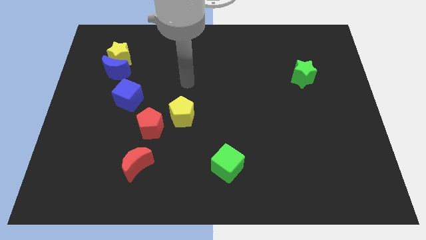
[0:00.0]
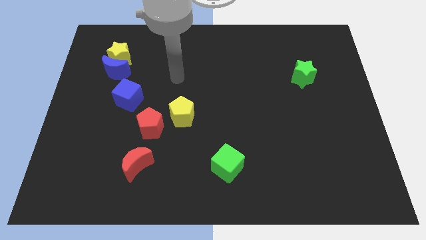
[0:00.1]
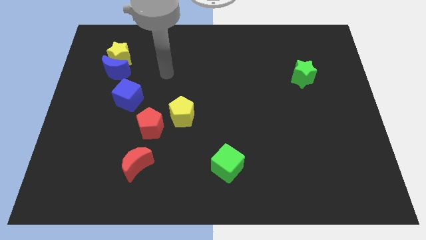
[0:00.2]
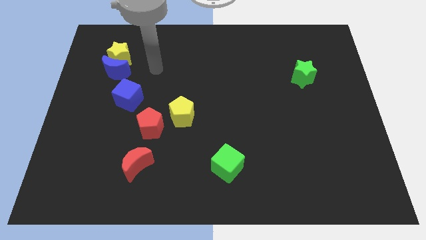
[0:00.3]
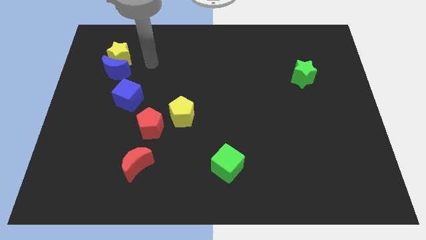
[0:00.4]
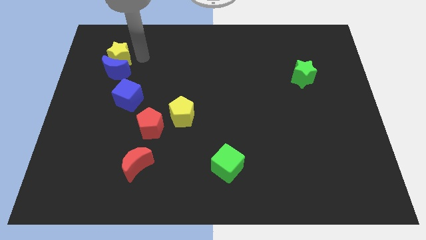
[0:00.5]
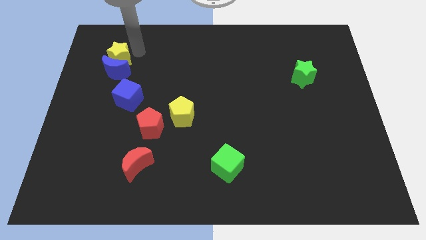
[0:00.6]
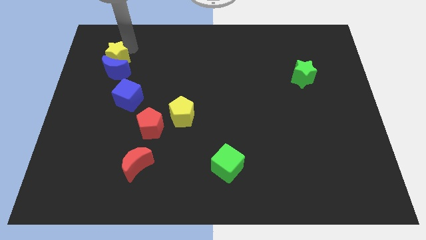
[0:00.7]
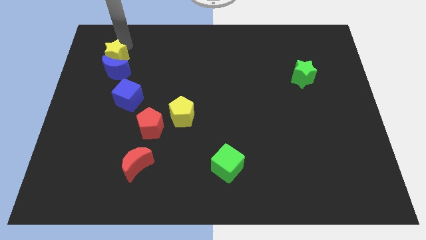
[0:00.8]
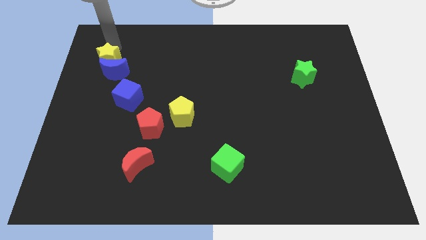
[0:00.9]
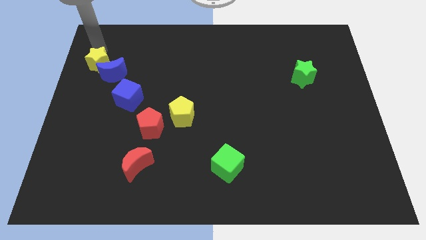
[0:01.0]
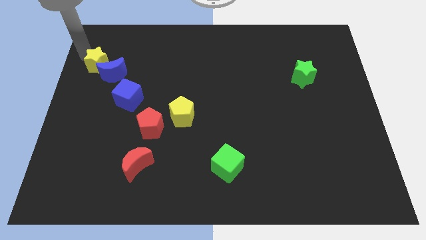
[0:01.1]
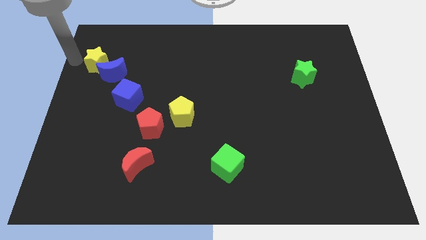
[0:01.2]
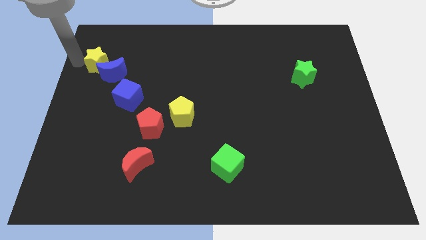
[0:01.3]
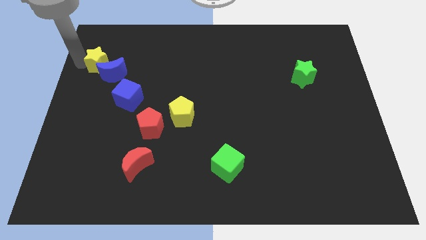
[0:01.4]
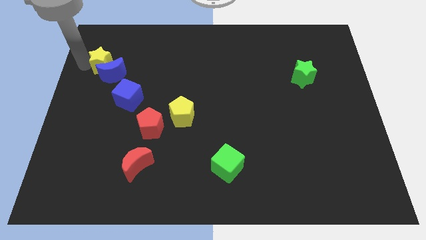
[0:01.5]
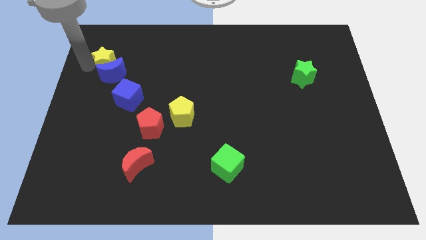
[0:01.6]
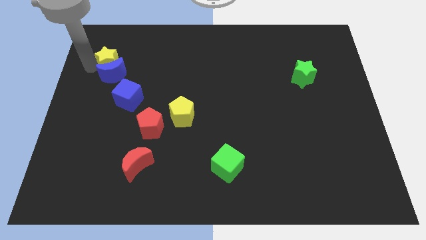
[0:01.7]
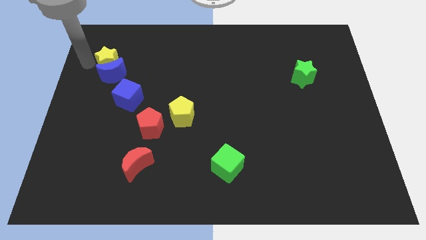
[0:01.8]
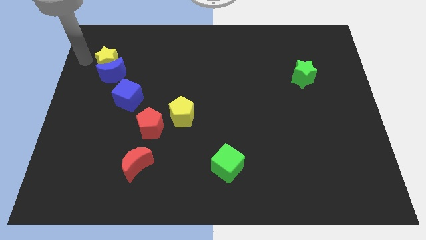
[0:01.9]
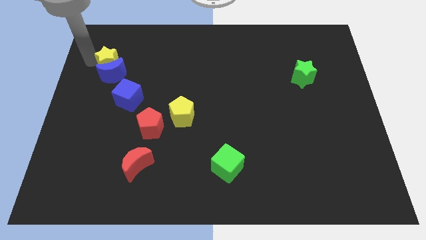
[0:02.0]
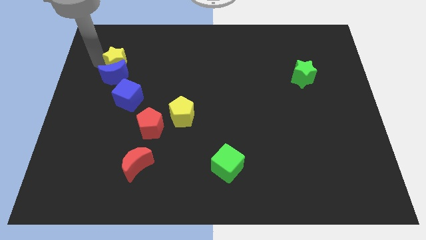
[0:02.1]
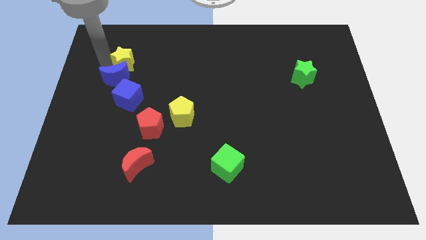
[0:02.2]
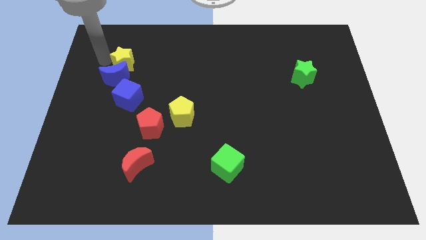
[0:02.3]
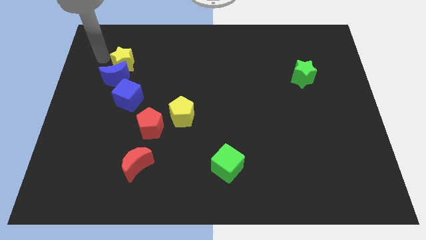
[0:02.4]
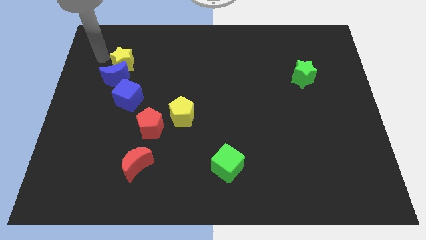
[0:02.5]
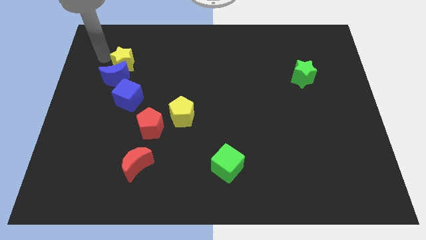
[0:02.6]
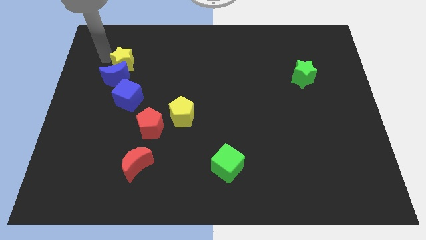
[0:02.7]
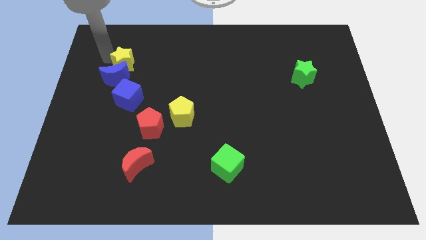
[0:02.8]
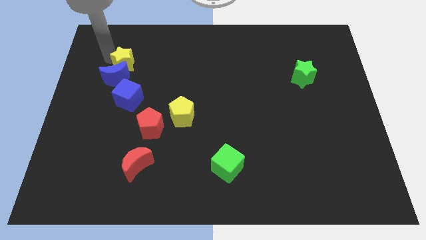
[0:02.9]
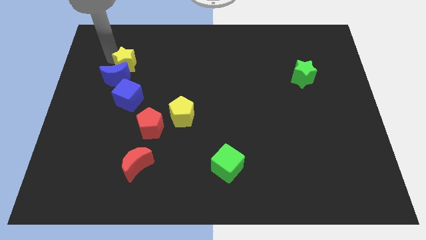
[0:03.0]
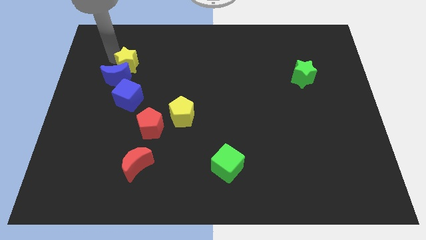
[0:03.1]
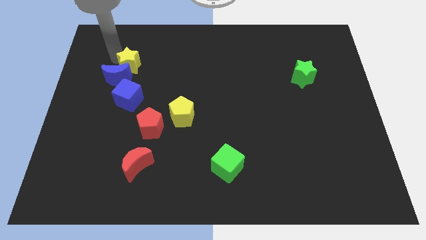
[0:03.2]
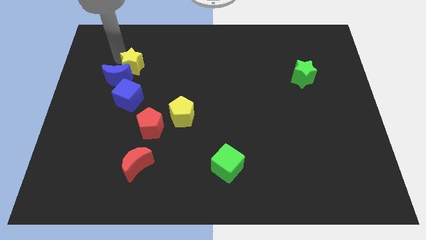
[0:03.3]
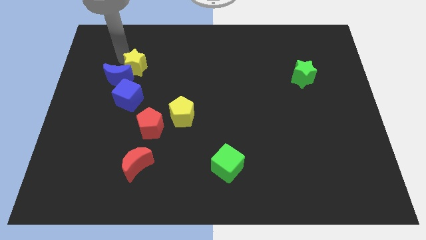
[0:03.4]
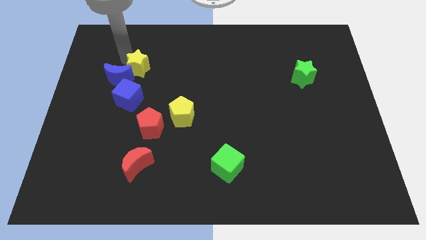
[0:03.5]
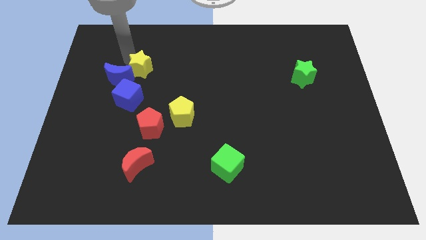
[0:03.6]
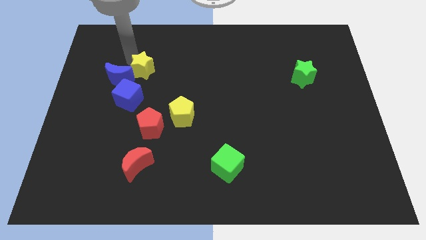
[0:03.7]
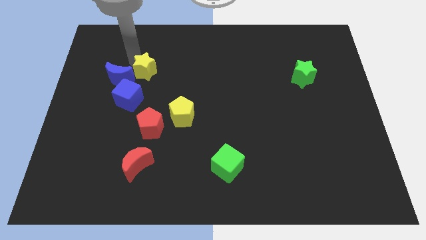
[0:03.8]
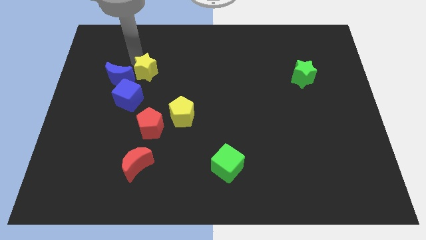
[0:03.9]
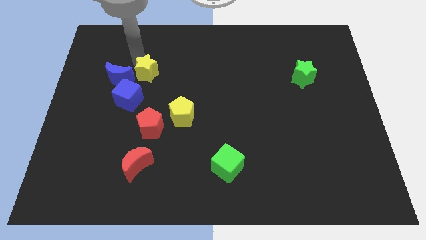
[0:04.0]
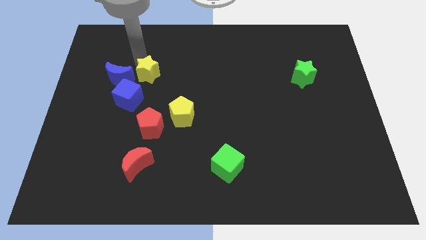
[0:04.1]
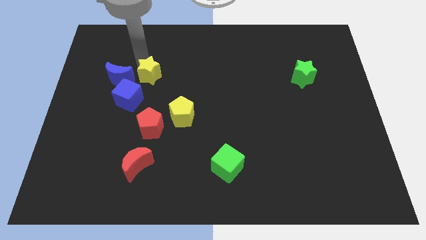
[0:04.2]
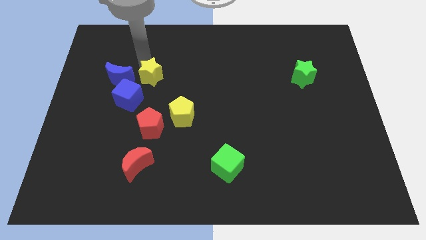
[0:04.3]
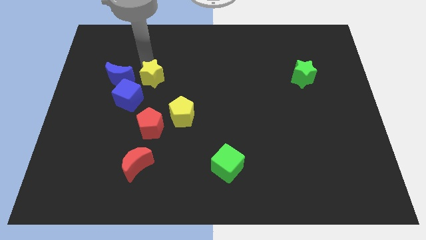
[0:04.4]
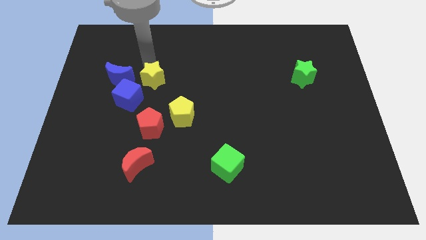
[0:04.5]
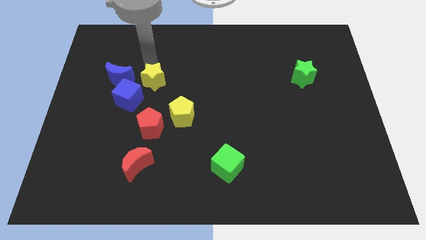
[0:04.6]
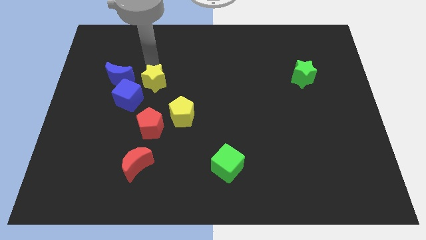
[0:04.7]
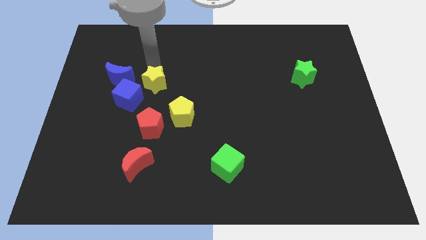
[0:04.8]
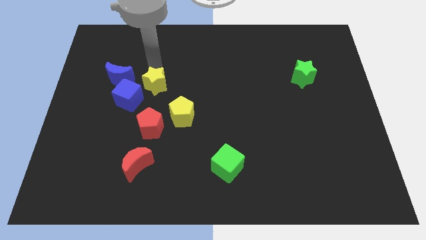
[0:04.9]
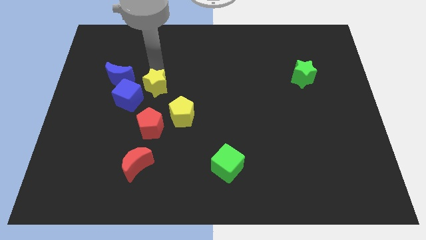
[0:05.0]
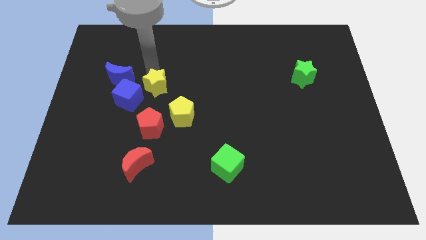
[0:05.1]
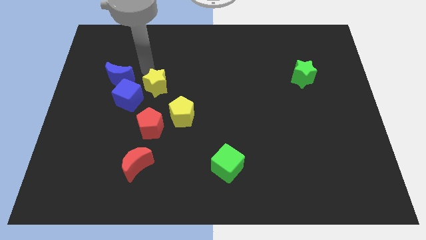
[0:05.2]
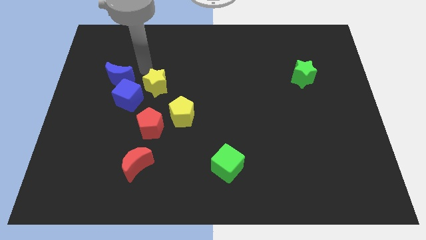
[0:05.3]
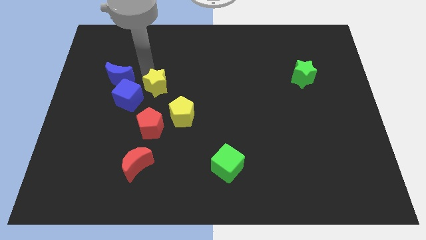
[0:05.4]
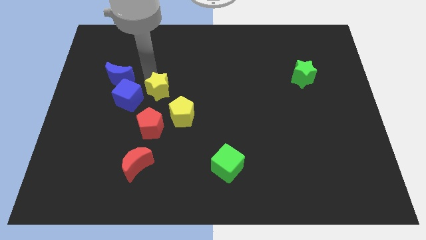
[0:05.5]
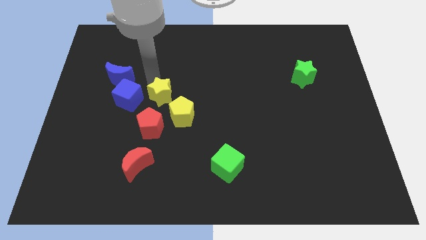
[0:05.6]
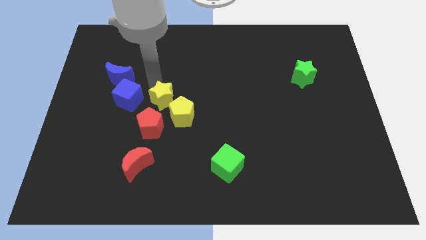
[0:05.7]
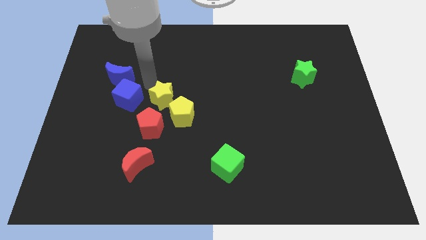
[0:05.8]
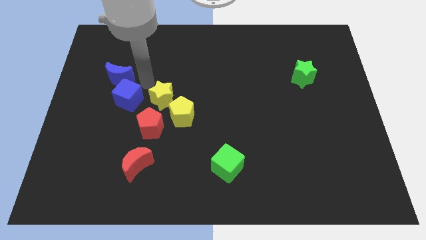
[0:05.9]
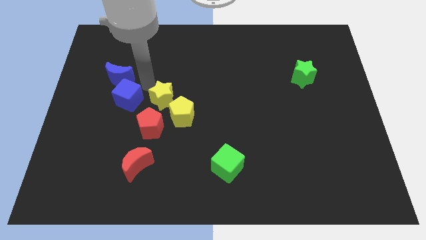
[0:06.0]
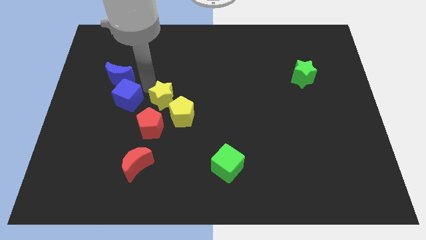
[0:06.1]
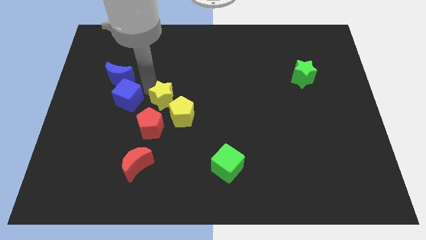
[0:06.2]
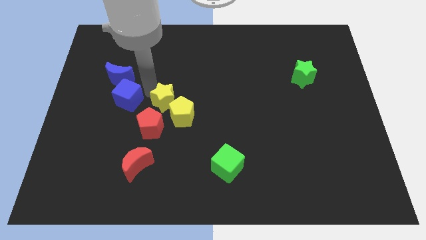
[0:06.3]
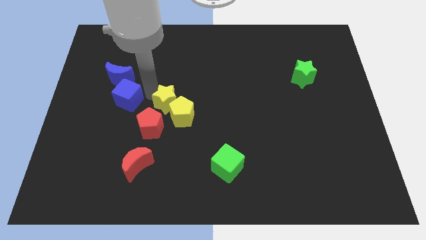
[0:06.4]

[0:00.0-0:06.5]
move the yellow star next to the yellow pentagon
